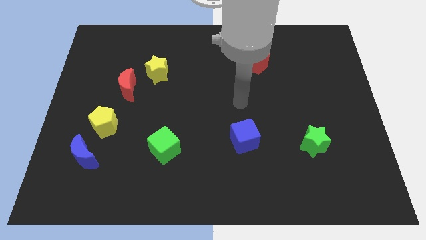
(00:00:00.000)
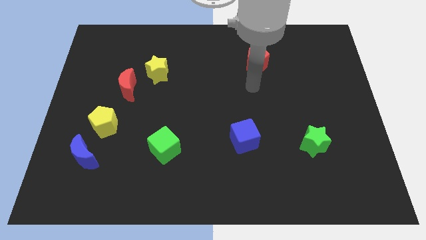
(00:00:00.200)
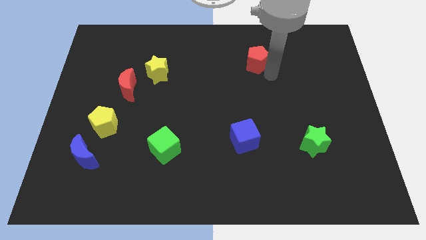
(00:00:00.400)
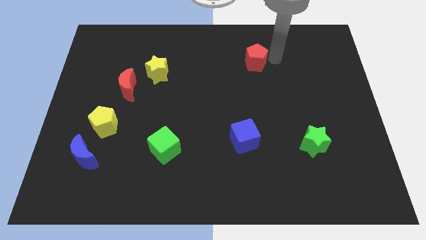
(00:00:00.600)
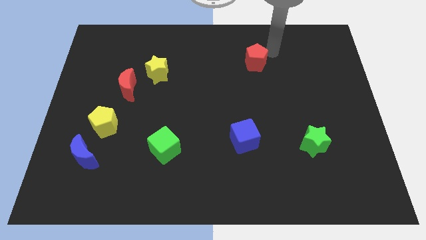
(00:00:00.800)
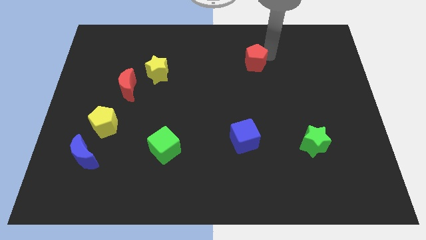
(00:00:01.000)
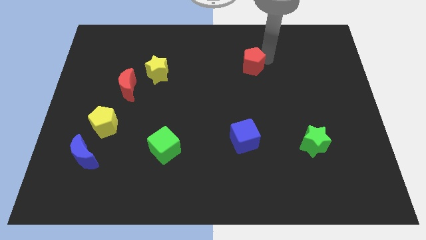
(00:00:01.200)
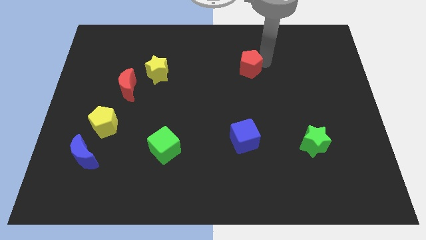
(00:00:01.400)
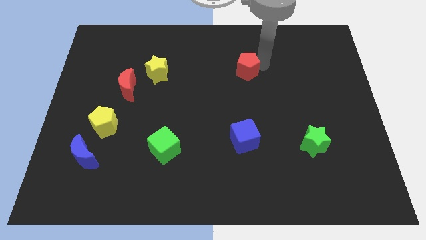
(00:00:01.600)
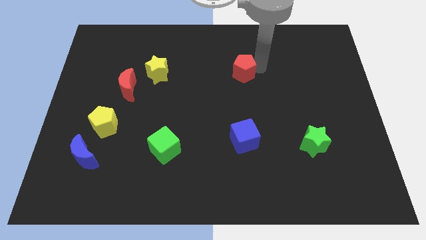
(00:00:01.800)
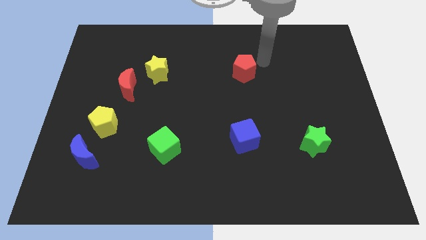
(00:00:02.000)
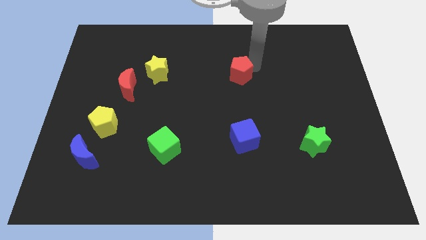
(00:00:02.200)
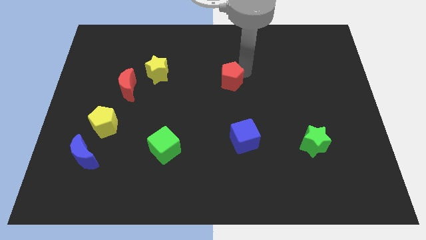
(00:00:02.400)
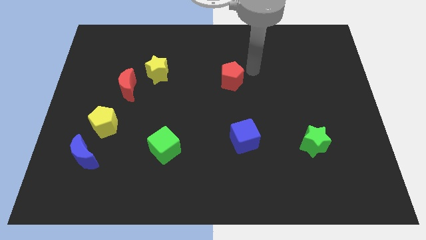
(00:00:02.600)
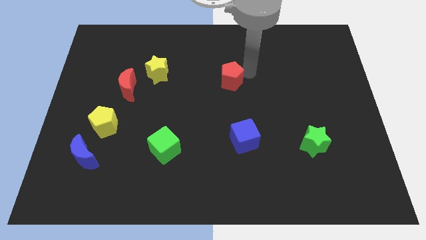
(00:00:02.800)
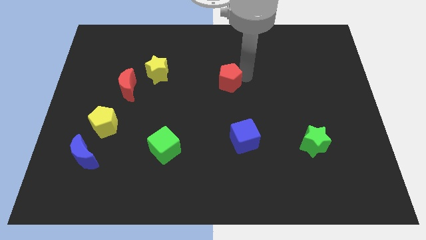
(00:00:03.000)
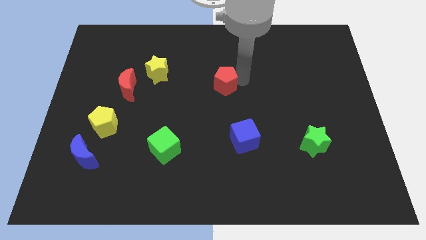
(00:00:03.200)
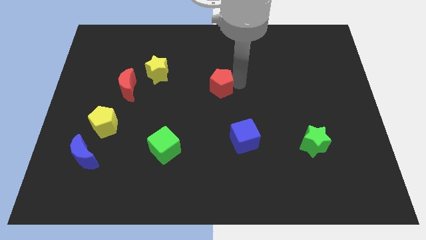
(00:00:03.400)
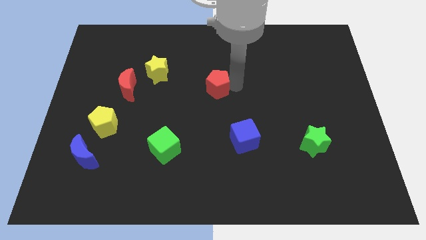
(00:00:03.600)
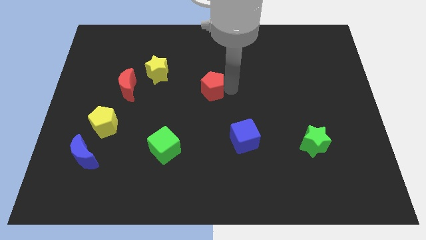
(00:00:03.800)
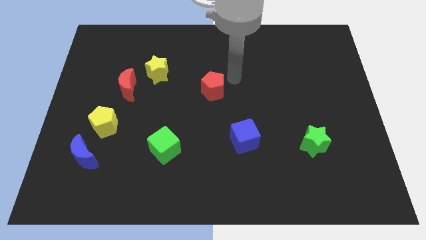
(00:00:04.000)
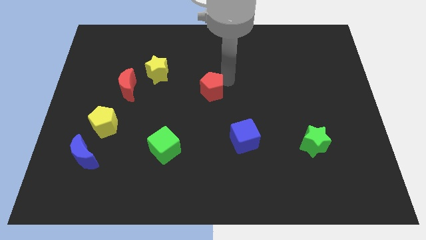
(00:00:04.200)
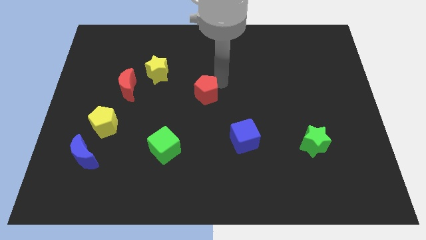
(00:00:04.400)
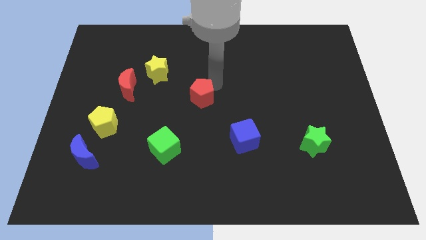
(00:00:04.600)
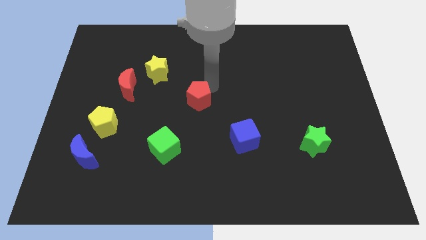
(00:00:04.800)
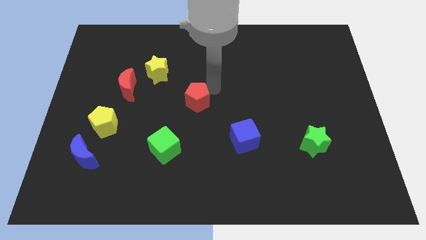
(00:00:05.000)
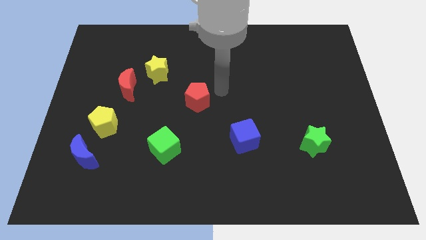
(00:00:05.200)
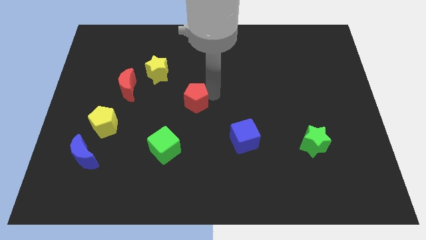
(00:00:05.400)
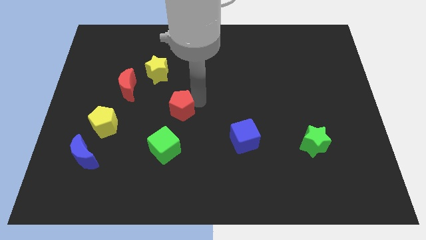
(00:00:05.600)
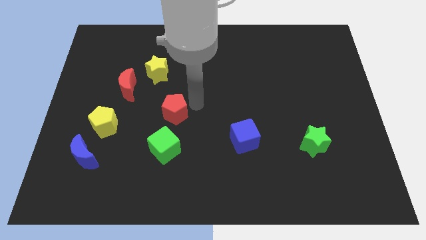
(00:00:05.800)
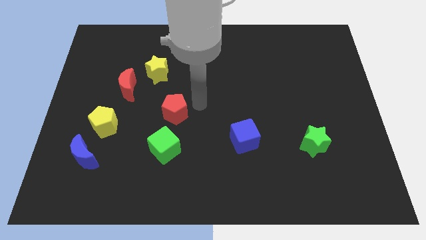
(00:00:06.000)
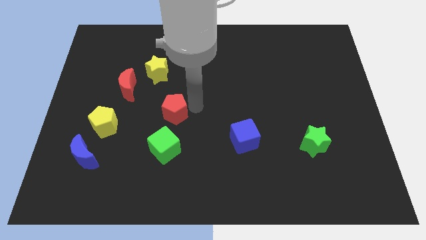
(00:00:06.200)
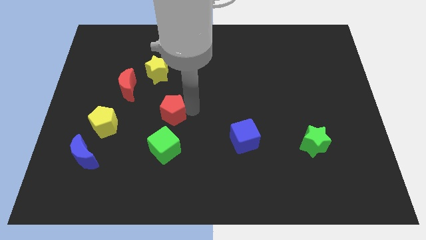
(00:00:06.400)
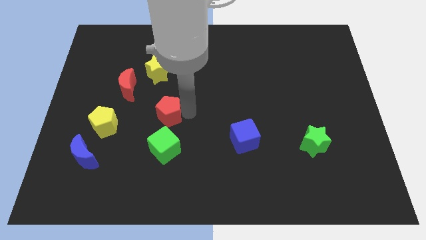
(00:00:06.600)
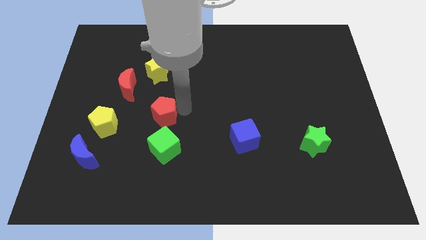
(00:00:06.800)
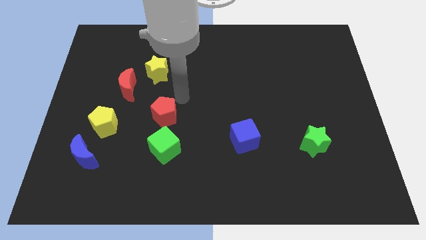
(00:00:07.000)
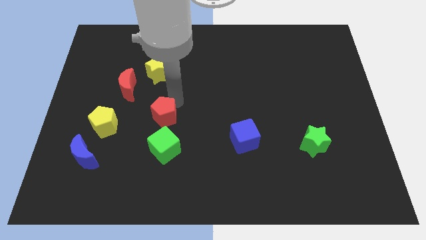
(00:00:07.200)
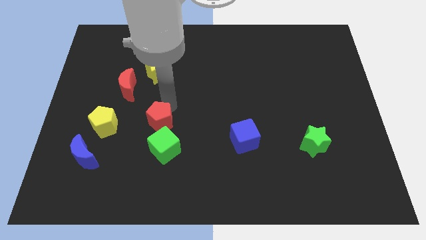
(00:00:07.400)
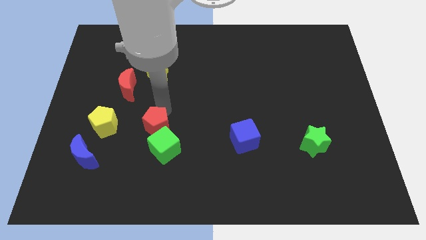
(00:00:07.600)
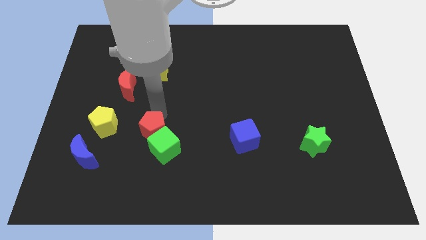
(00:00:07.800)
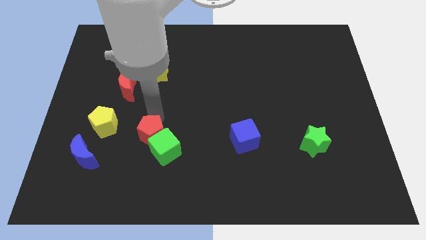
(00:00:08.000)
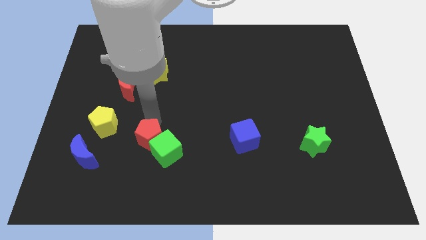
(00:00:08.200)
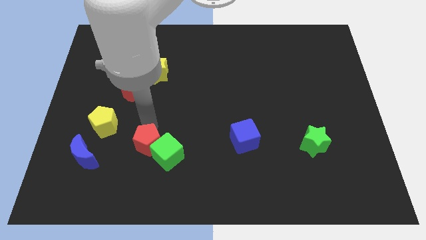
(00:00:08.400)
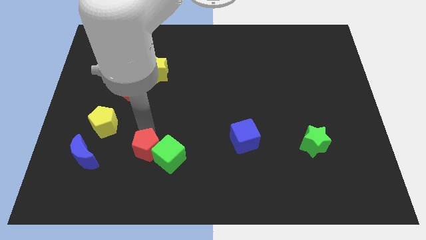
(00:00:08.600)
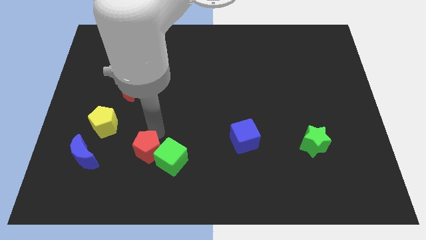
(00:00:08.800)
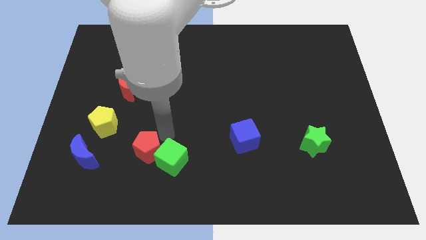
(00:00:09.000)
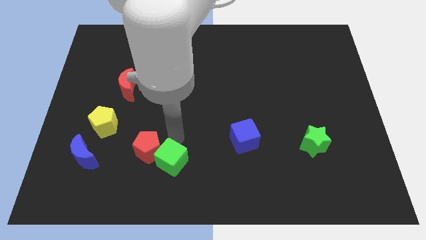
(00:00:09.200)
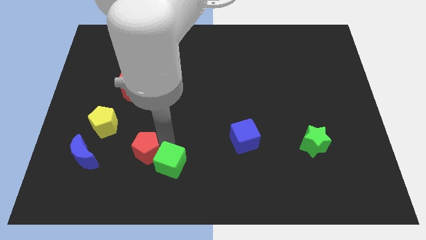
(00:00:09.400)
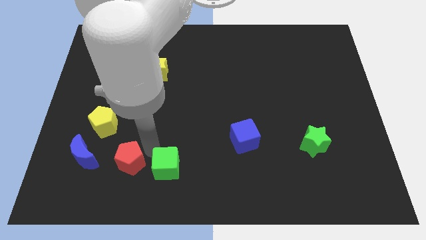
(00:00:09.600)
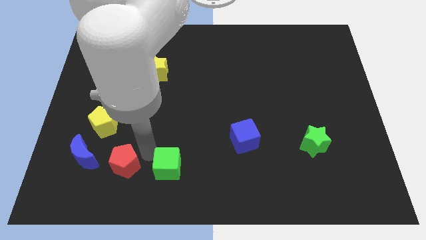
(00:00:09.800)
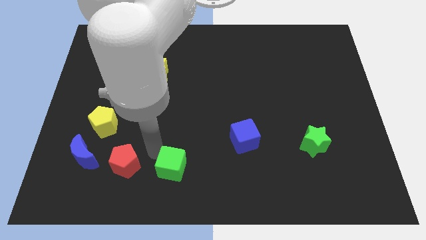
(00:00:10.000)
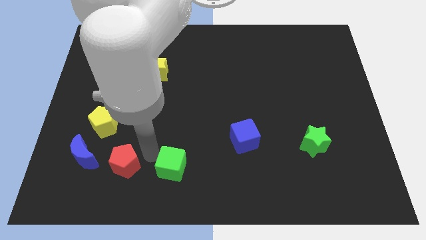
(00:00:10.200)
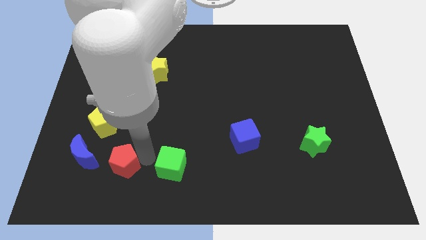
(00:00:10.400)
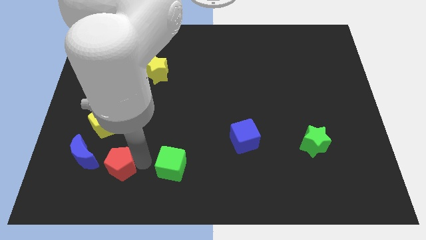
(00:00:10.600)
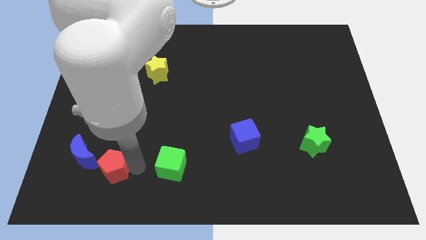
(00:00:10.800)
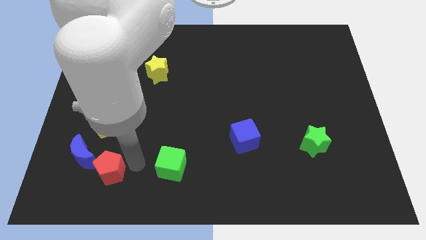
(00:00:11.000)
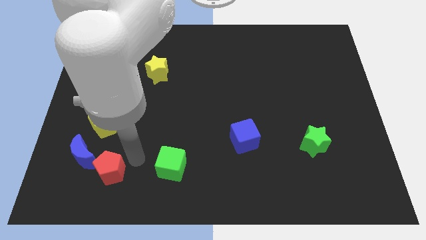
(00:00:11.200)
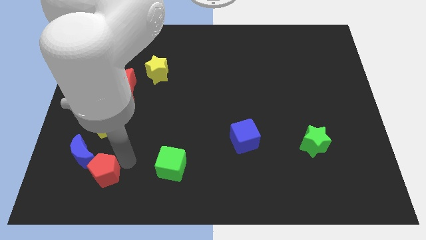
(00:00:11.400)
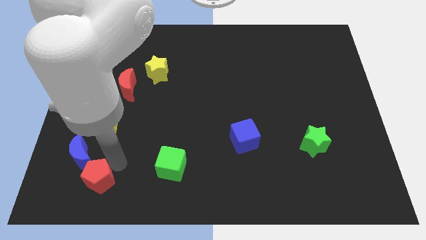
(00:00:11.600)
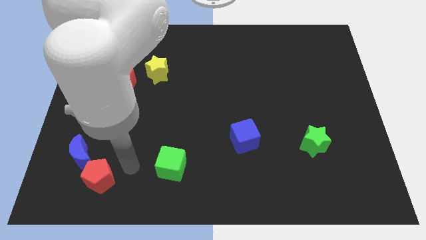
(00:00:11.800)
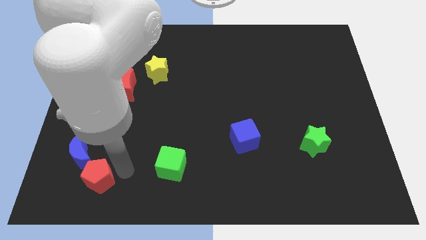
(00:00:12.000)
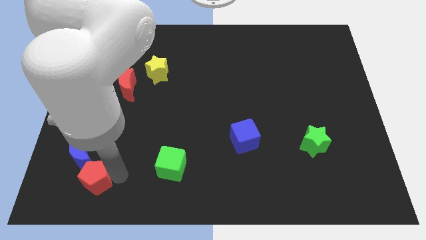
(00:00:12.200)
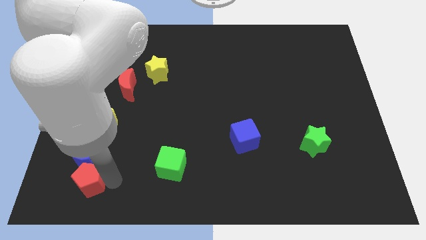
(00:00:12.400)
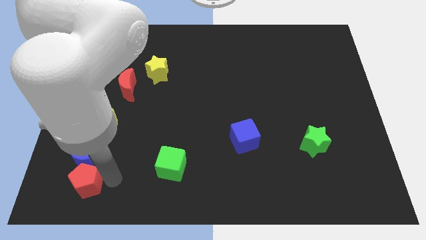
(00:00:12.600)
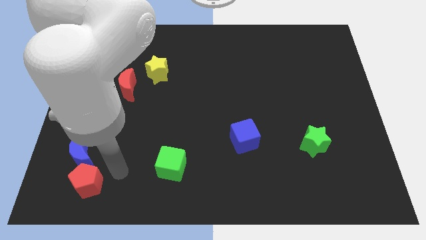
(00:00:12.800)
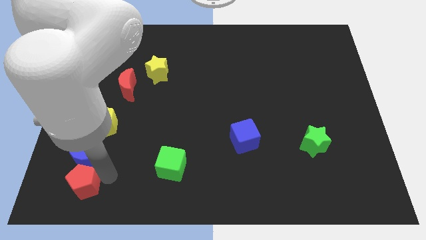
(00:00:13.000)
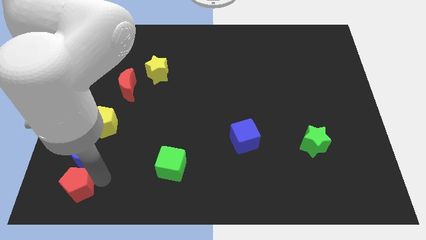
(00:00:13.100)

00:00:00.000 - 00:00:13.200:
slide the red pentagon to the bottom left corner
